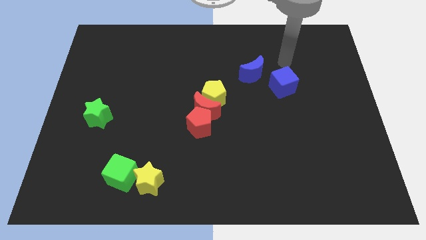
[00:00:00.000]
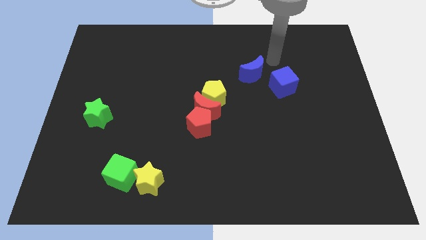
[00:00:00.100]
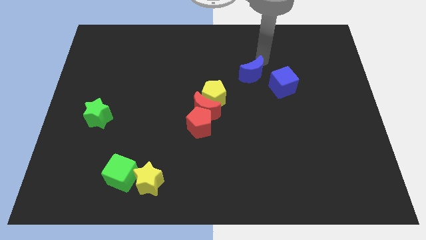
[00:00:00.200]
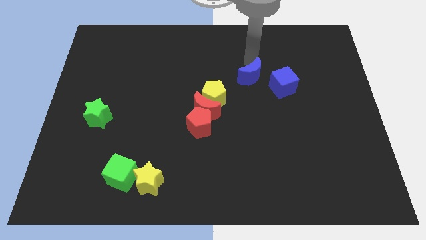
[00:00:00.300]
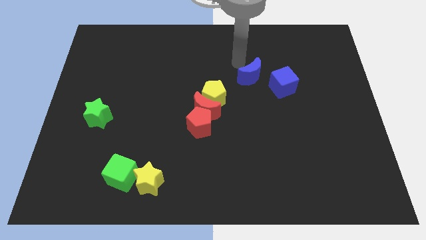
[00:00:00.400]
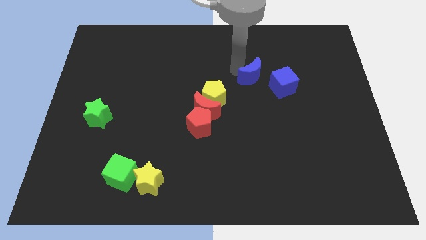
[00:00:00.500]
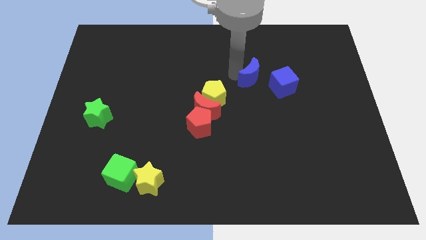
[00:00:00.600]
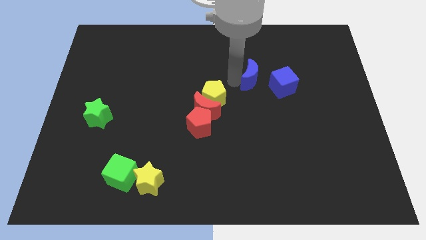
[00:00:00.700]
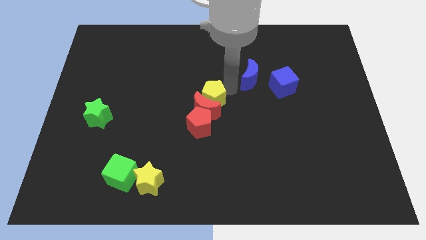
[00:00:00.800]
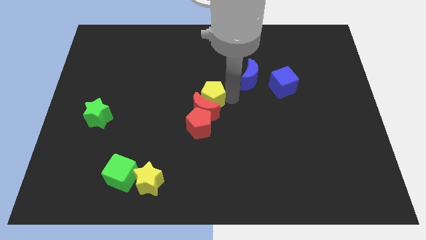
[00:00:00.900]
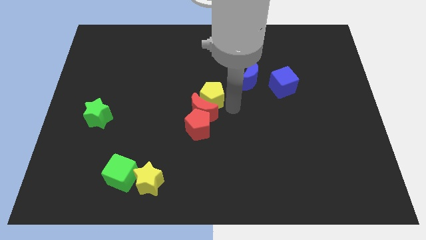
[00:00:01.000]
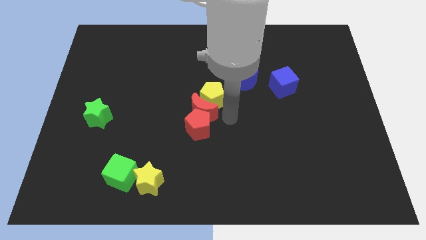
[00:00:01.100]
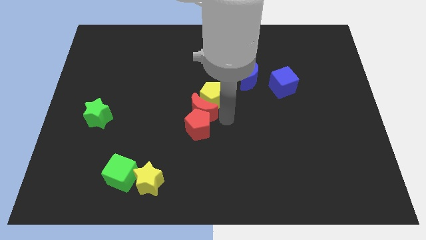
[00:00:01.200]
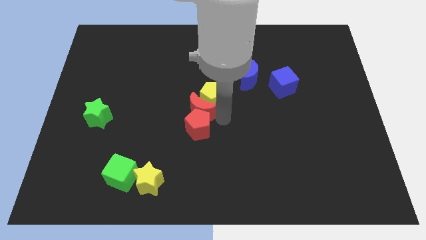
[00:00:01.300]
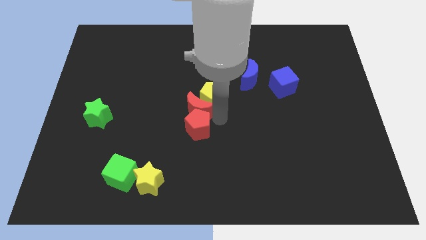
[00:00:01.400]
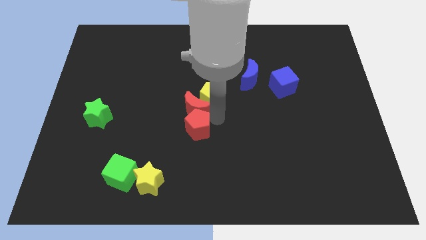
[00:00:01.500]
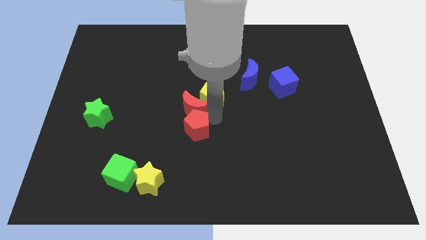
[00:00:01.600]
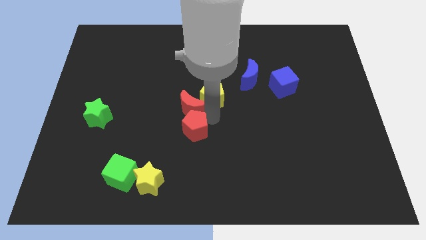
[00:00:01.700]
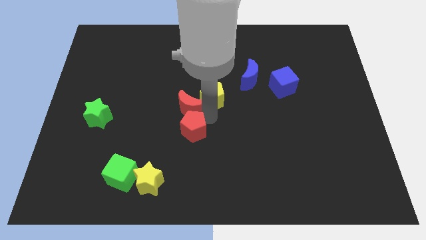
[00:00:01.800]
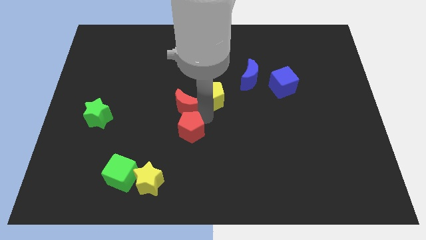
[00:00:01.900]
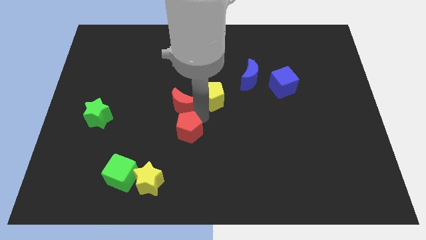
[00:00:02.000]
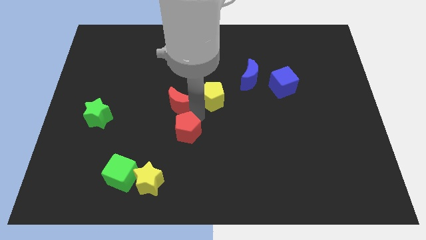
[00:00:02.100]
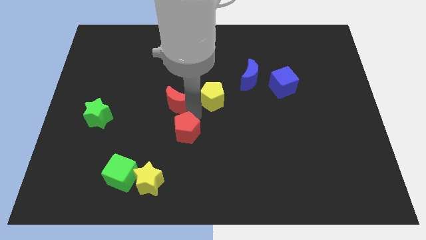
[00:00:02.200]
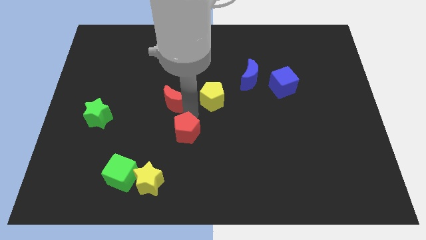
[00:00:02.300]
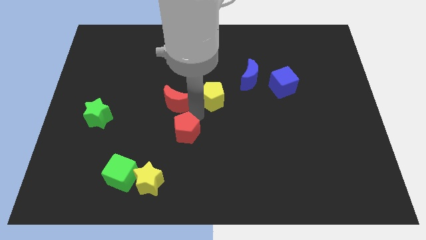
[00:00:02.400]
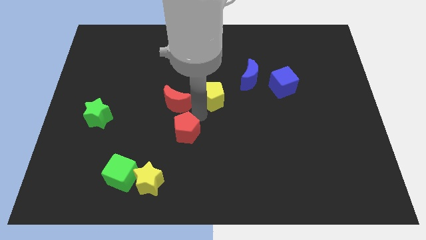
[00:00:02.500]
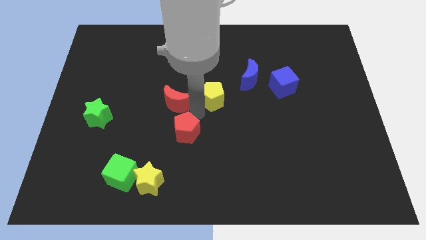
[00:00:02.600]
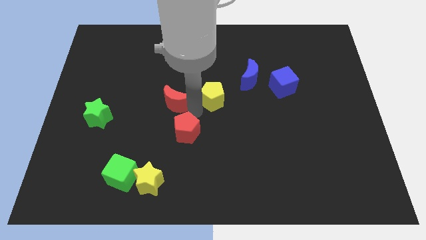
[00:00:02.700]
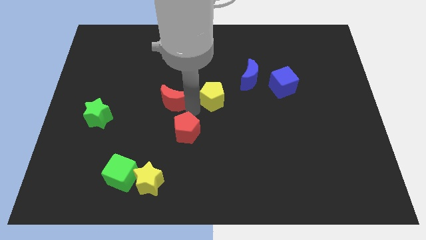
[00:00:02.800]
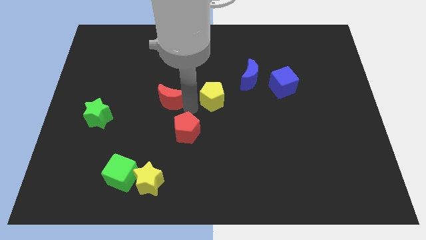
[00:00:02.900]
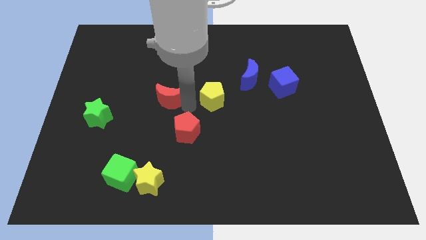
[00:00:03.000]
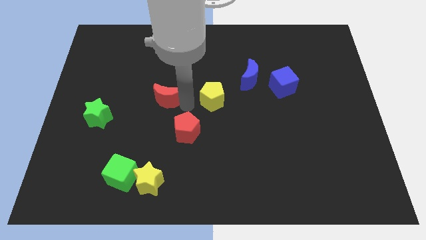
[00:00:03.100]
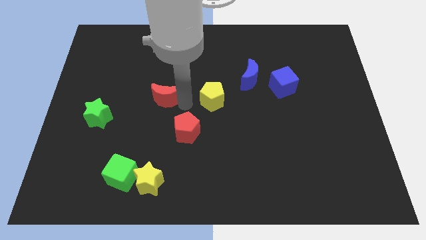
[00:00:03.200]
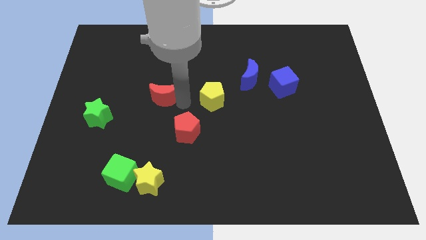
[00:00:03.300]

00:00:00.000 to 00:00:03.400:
move the red moon away from the red pentagon and yellow pentagon

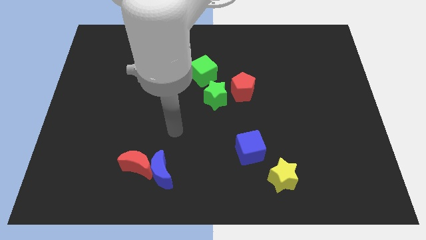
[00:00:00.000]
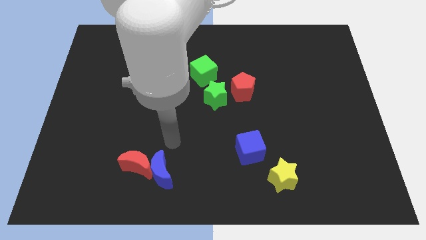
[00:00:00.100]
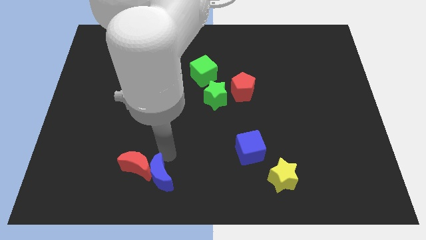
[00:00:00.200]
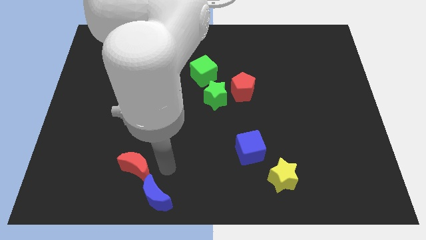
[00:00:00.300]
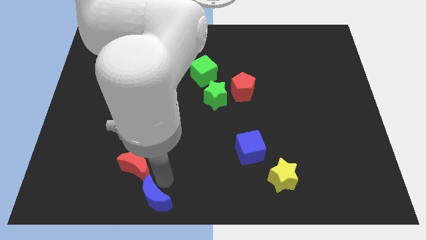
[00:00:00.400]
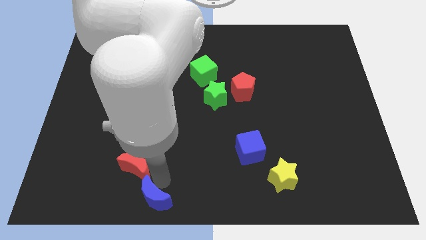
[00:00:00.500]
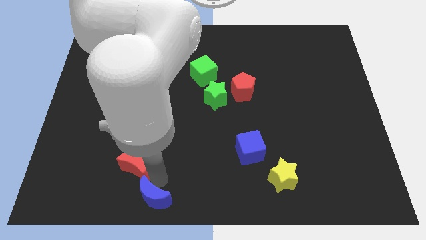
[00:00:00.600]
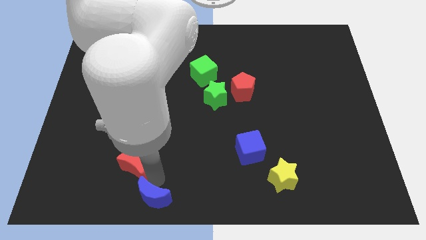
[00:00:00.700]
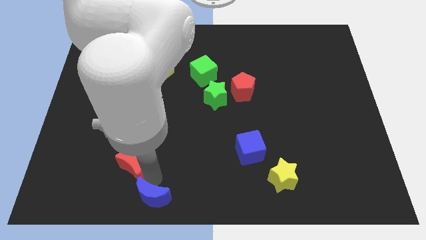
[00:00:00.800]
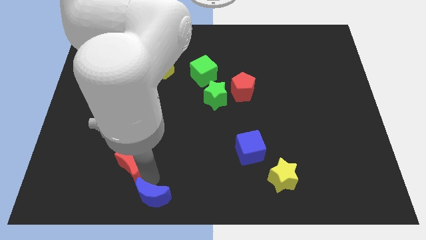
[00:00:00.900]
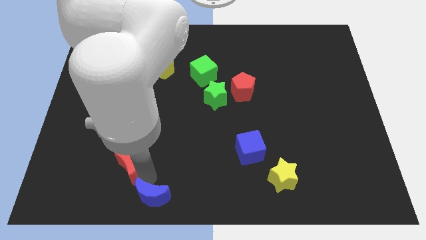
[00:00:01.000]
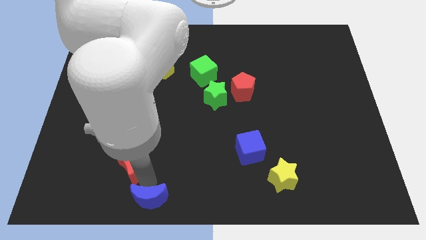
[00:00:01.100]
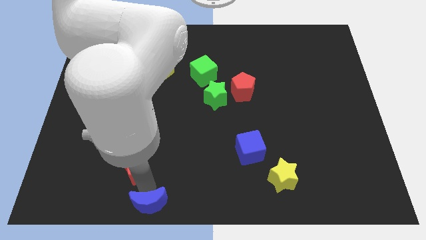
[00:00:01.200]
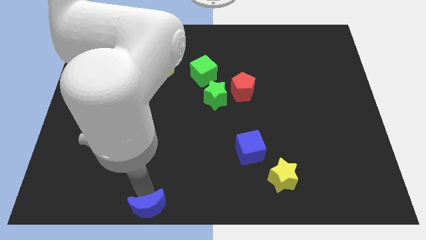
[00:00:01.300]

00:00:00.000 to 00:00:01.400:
pull the red moon apart from the blue moon

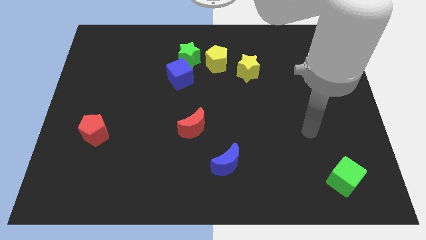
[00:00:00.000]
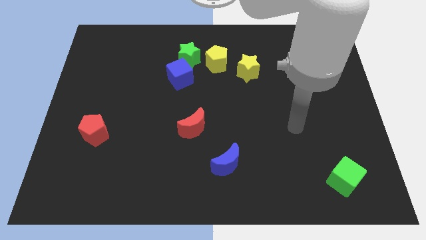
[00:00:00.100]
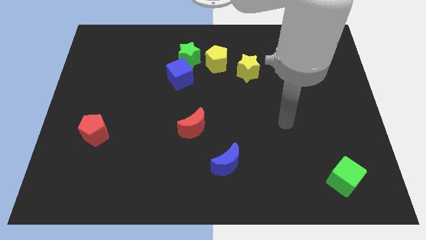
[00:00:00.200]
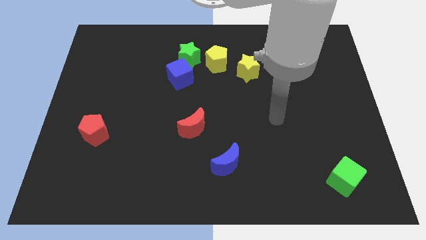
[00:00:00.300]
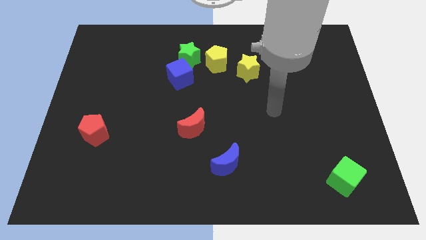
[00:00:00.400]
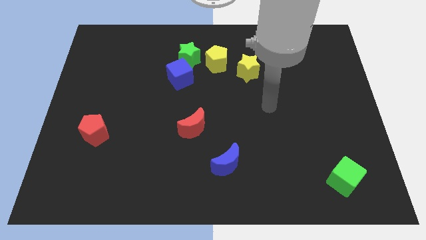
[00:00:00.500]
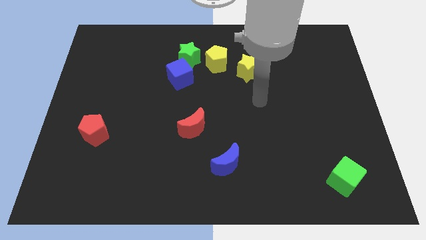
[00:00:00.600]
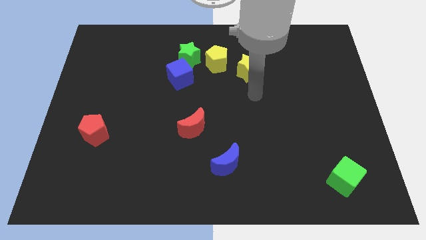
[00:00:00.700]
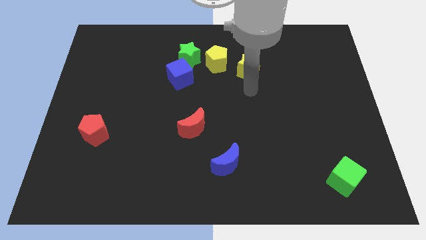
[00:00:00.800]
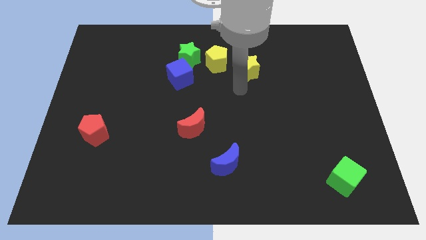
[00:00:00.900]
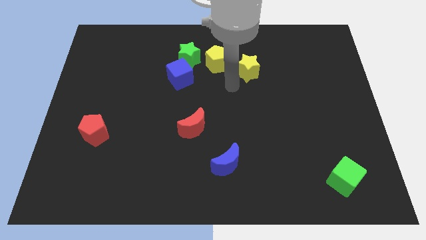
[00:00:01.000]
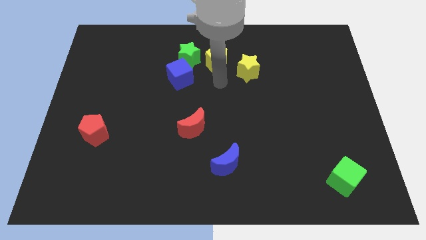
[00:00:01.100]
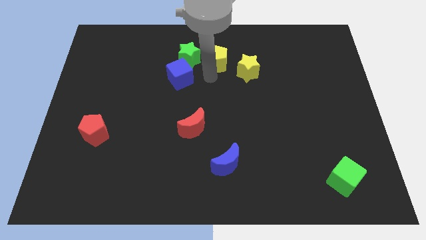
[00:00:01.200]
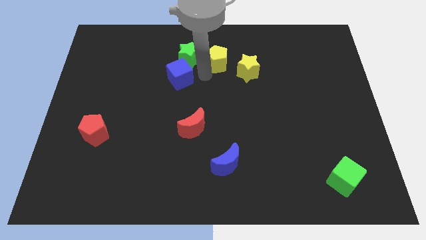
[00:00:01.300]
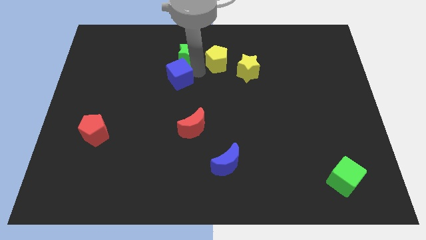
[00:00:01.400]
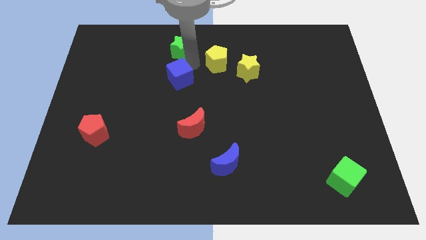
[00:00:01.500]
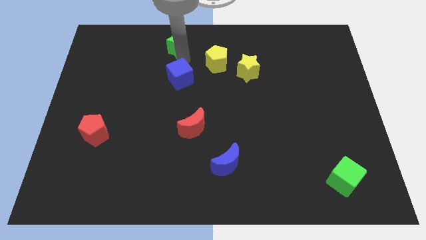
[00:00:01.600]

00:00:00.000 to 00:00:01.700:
move the blue cube away from the green star

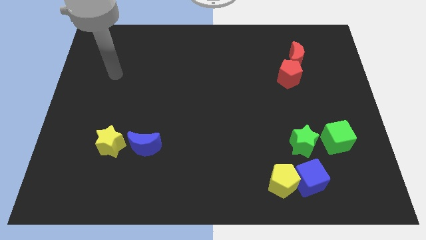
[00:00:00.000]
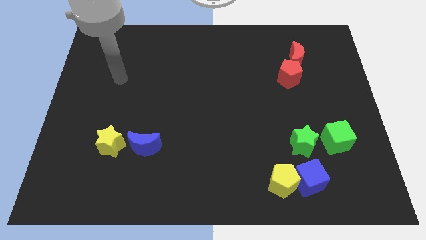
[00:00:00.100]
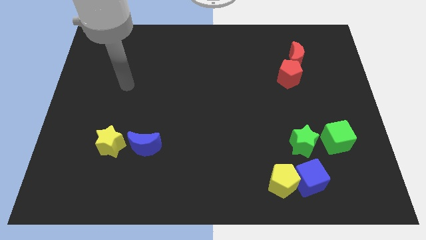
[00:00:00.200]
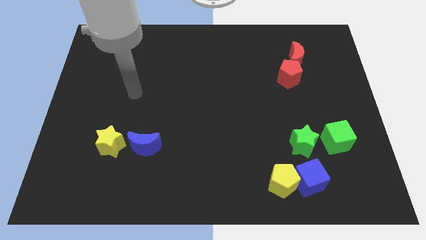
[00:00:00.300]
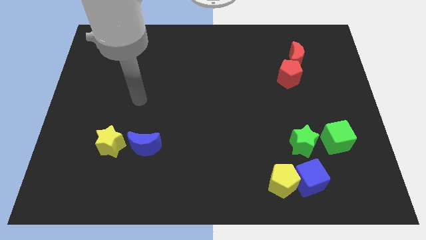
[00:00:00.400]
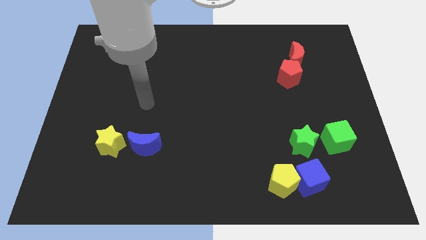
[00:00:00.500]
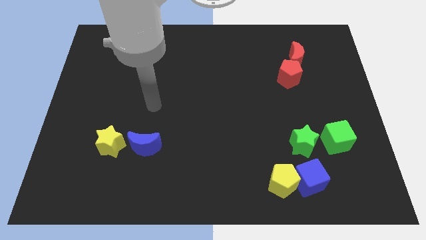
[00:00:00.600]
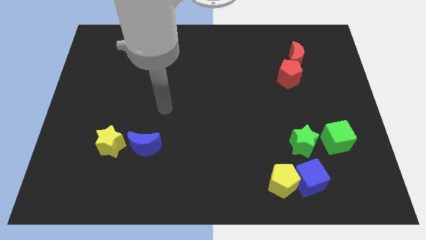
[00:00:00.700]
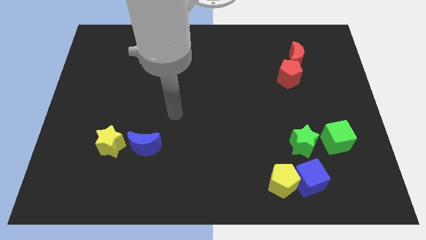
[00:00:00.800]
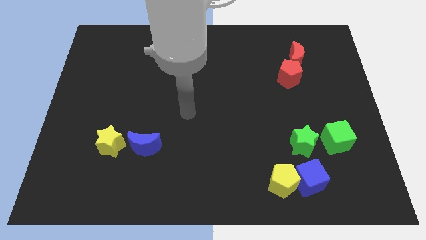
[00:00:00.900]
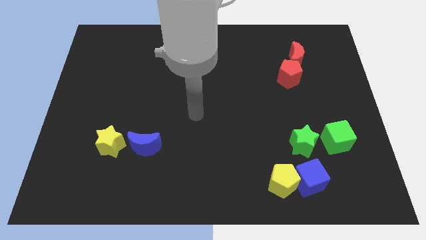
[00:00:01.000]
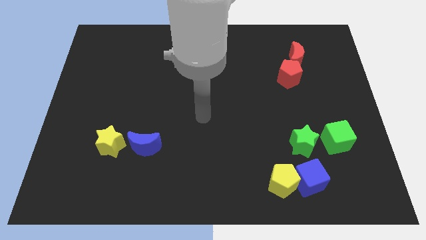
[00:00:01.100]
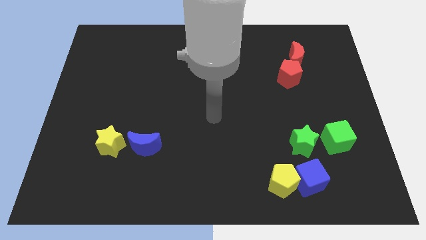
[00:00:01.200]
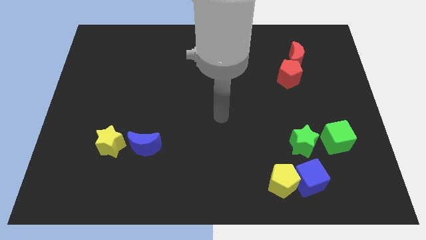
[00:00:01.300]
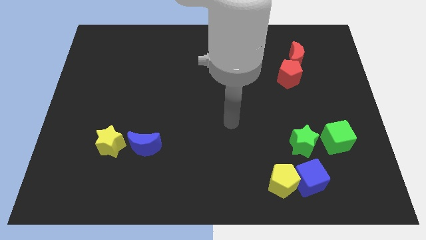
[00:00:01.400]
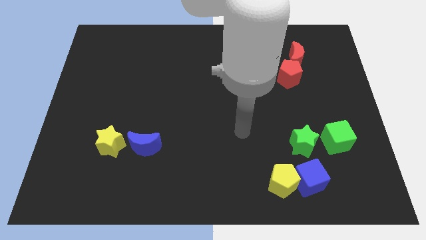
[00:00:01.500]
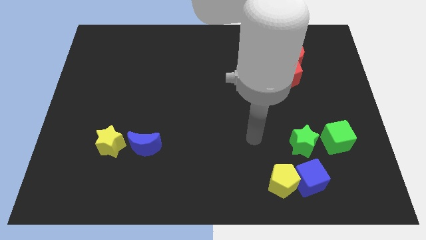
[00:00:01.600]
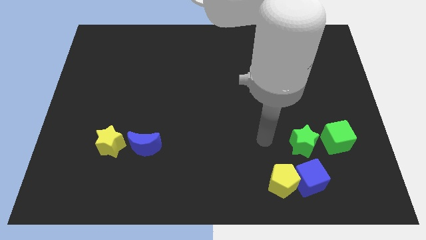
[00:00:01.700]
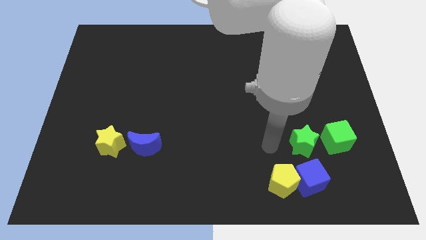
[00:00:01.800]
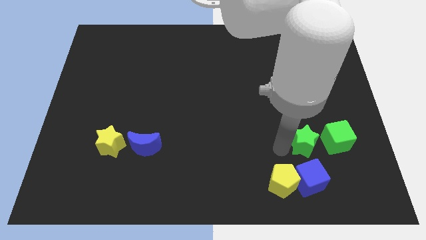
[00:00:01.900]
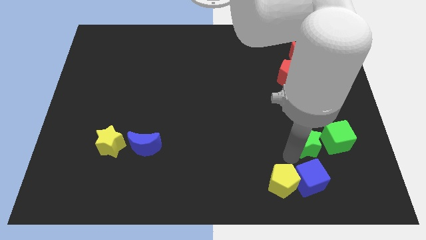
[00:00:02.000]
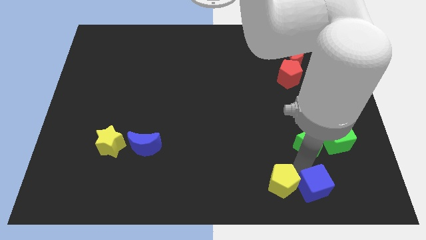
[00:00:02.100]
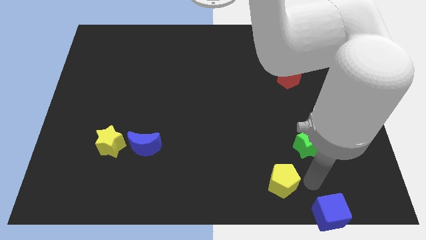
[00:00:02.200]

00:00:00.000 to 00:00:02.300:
move the yellow pentagon away from the blue cube

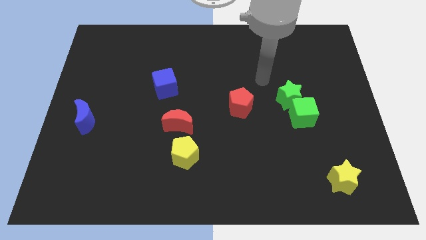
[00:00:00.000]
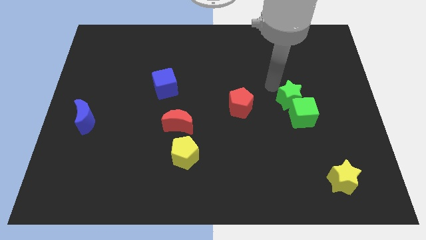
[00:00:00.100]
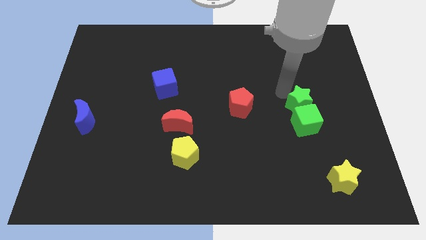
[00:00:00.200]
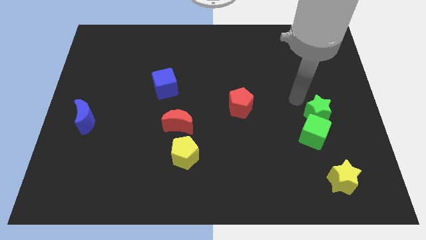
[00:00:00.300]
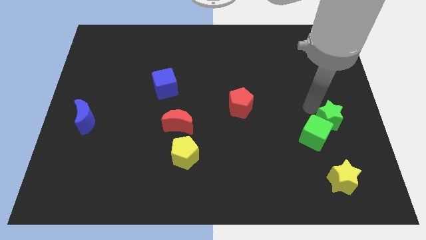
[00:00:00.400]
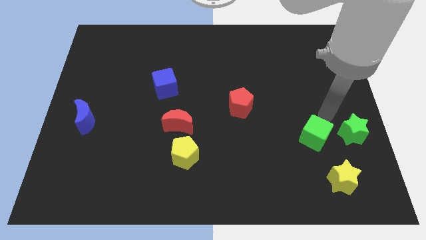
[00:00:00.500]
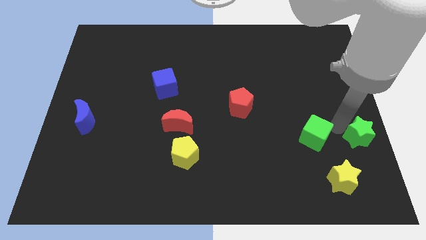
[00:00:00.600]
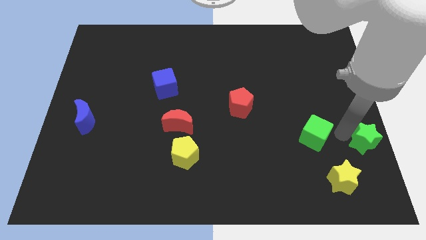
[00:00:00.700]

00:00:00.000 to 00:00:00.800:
separate the green cube from the green star
